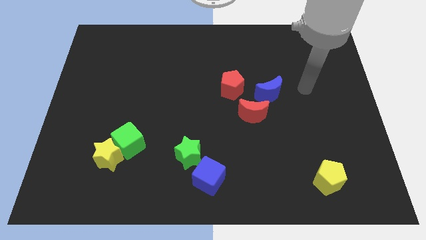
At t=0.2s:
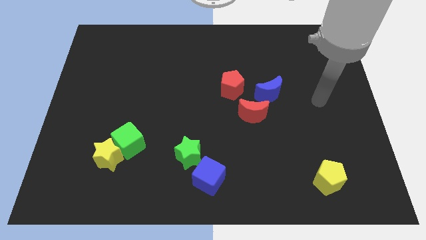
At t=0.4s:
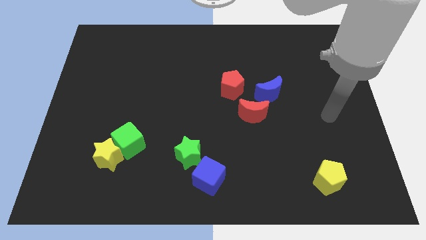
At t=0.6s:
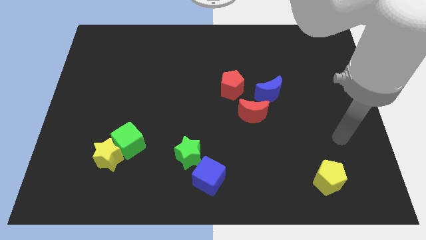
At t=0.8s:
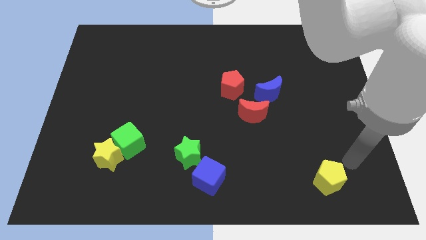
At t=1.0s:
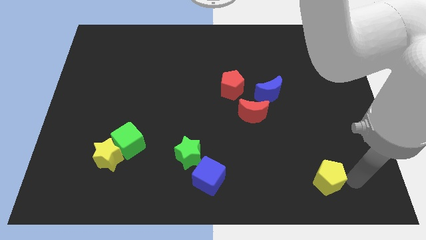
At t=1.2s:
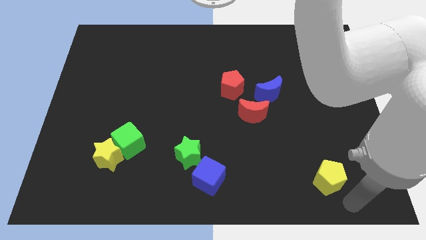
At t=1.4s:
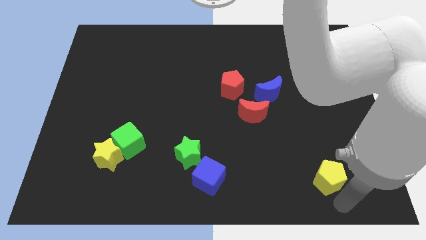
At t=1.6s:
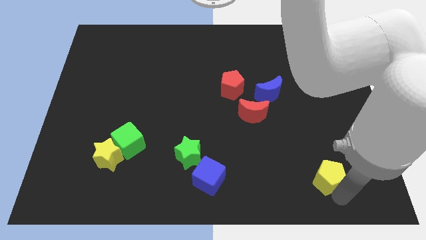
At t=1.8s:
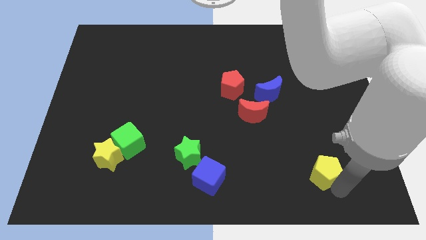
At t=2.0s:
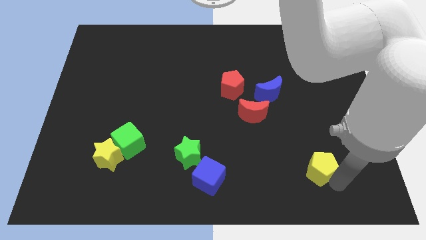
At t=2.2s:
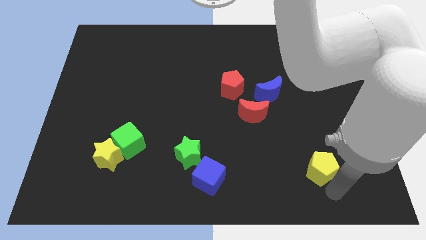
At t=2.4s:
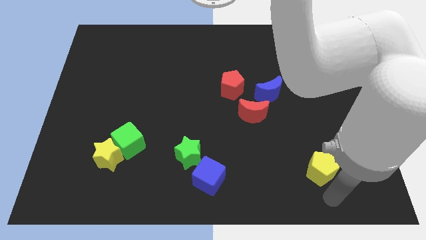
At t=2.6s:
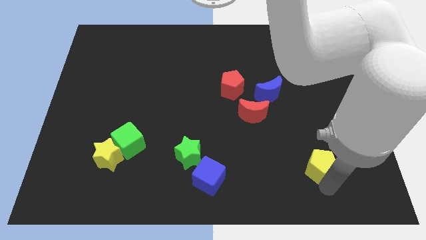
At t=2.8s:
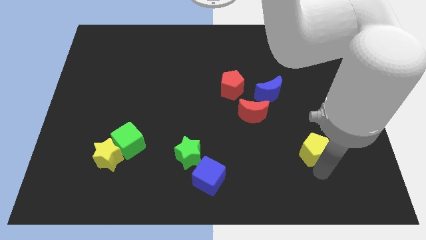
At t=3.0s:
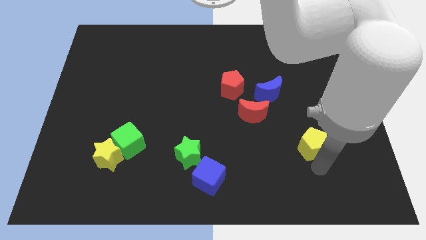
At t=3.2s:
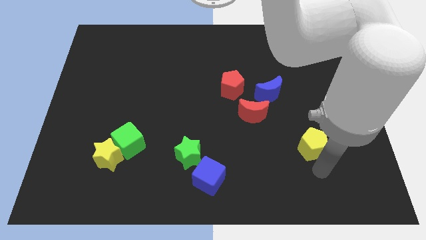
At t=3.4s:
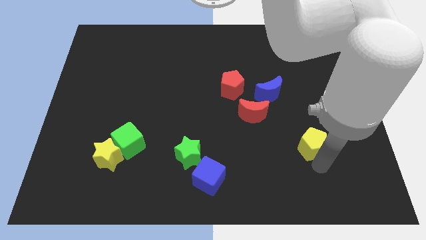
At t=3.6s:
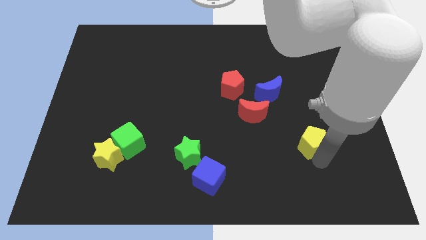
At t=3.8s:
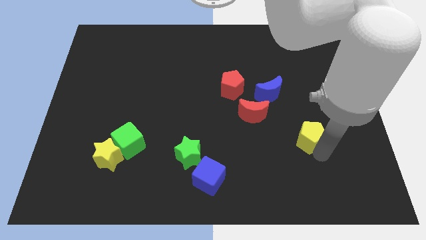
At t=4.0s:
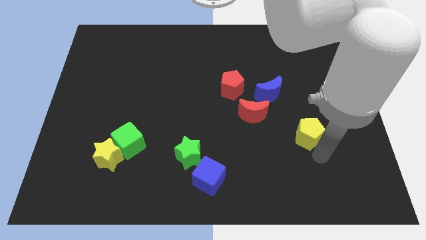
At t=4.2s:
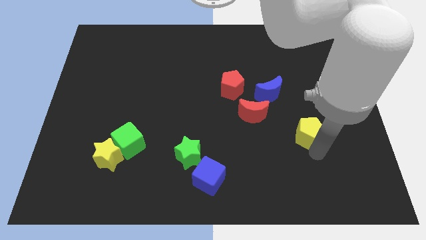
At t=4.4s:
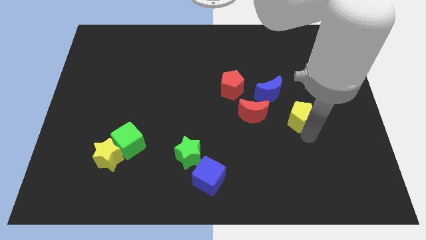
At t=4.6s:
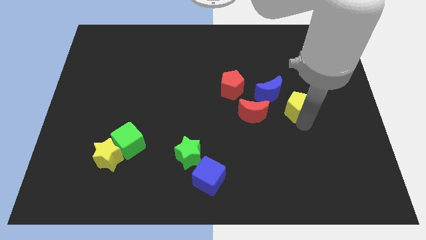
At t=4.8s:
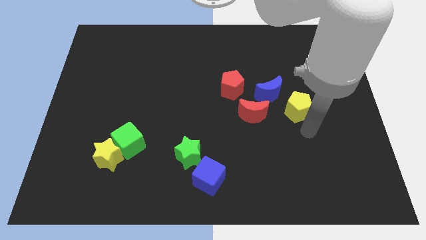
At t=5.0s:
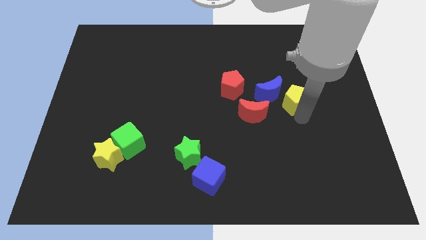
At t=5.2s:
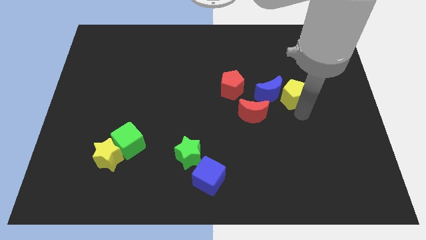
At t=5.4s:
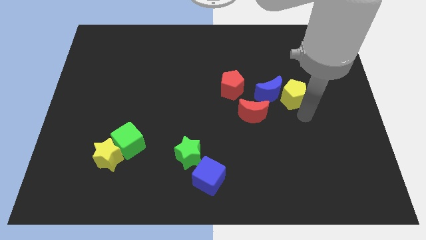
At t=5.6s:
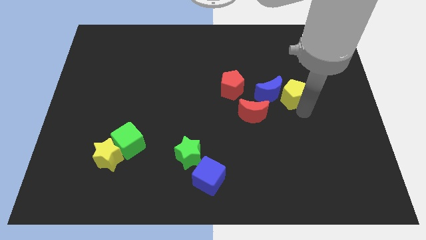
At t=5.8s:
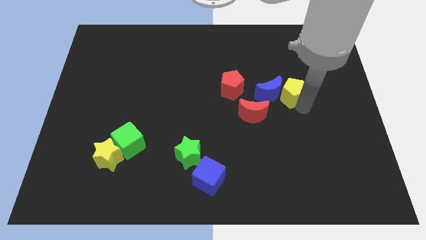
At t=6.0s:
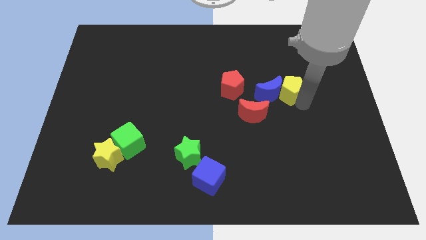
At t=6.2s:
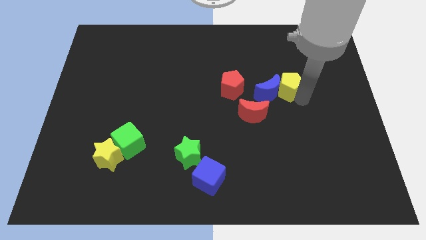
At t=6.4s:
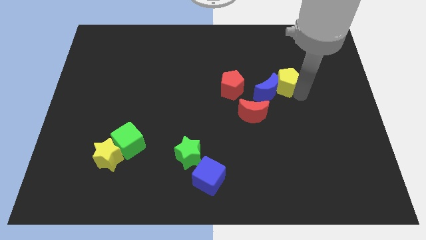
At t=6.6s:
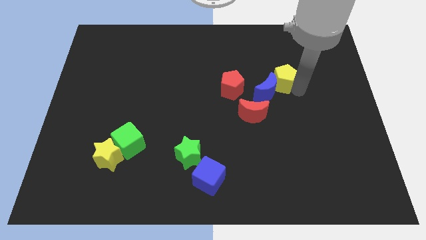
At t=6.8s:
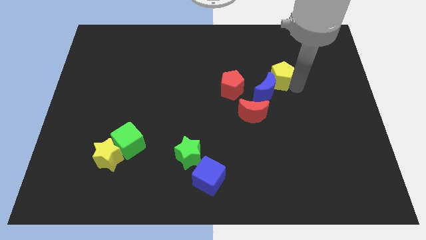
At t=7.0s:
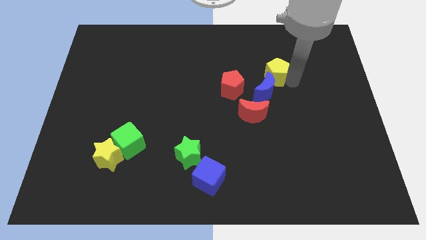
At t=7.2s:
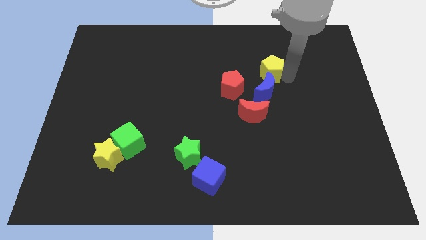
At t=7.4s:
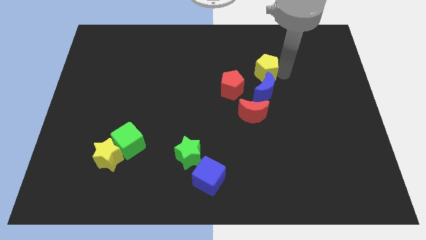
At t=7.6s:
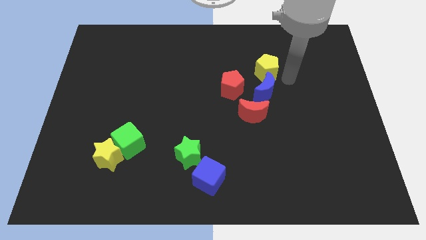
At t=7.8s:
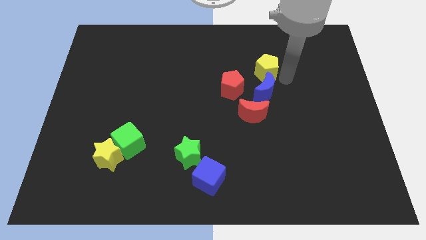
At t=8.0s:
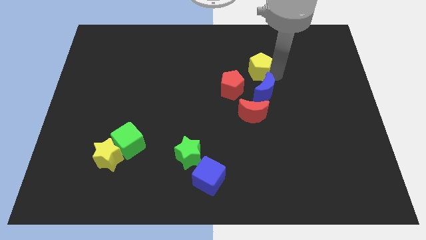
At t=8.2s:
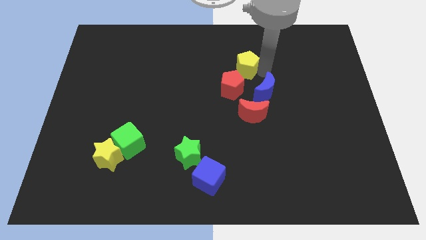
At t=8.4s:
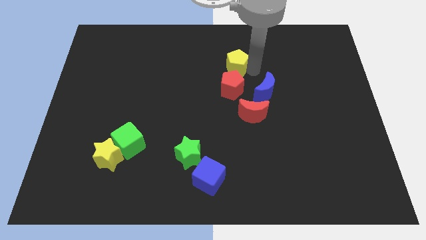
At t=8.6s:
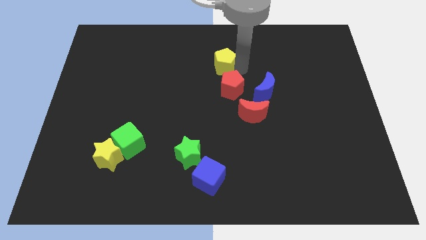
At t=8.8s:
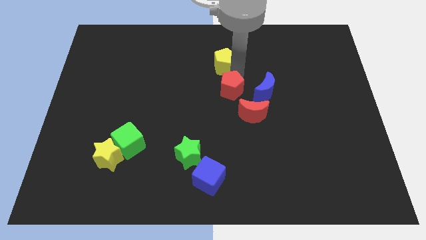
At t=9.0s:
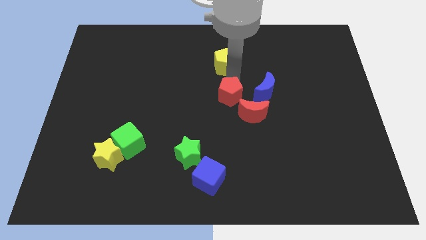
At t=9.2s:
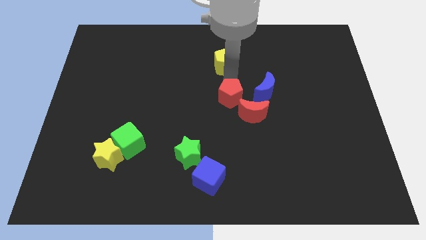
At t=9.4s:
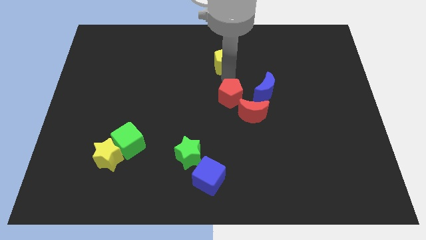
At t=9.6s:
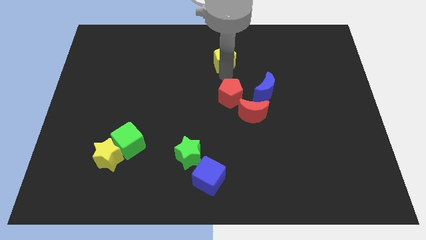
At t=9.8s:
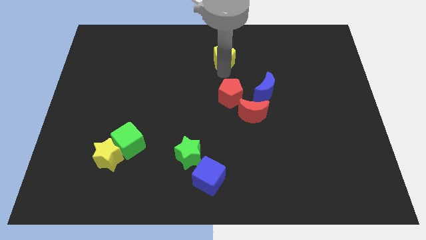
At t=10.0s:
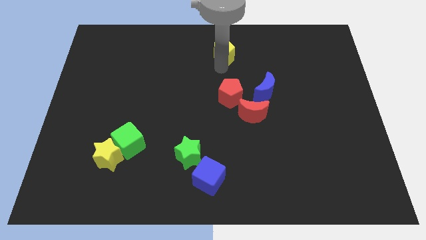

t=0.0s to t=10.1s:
move the yellow pentagon to the top side
